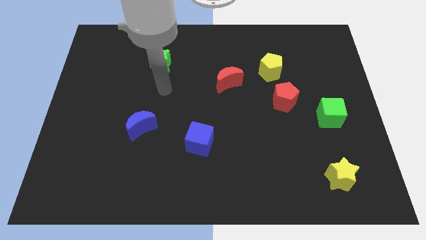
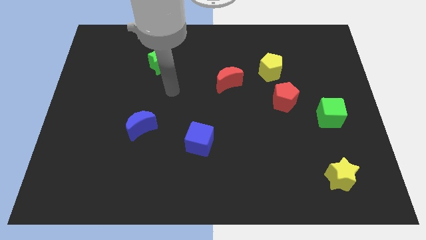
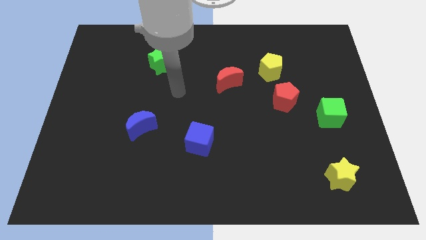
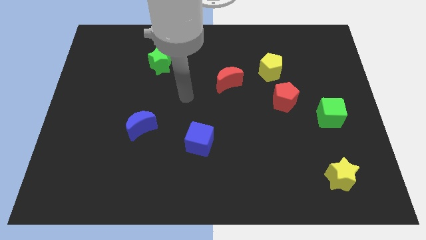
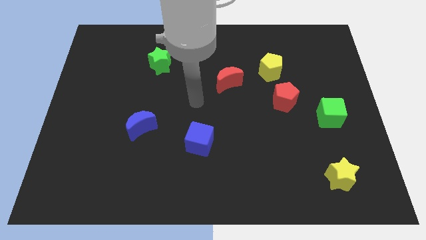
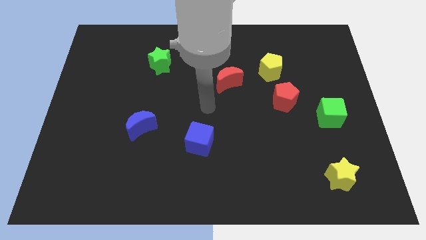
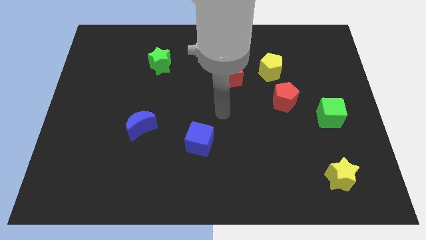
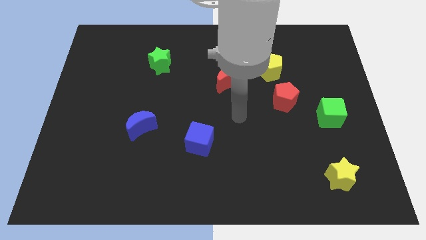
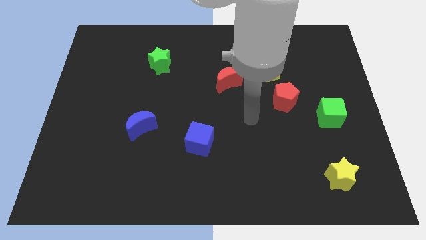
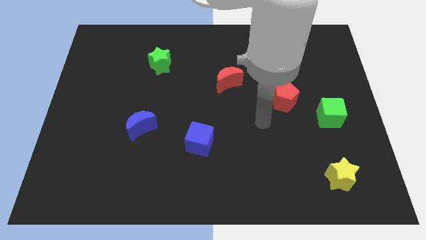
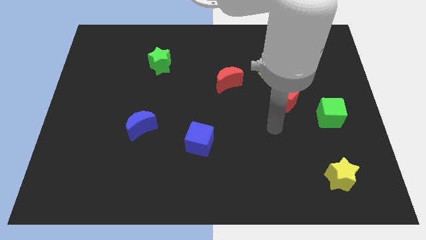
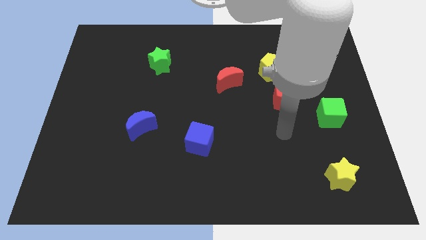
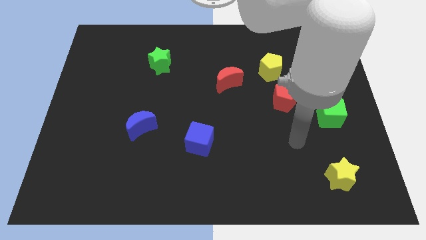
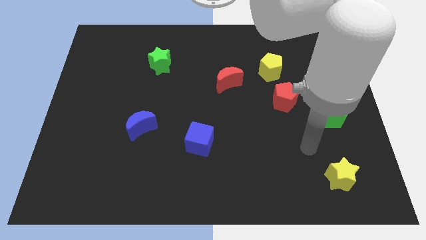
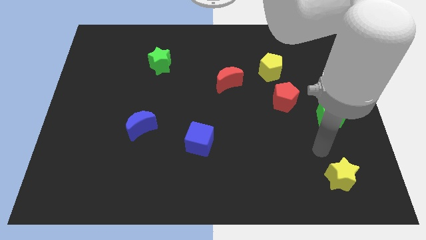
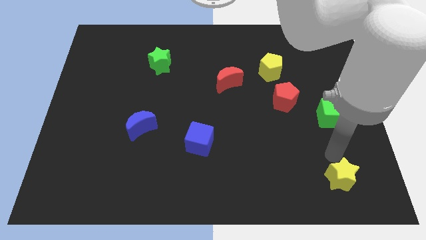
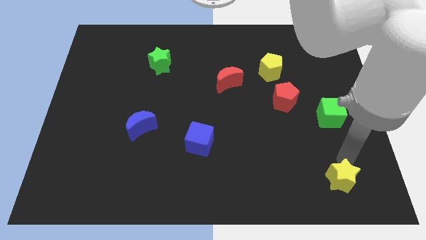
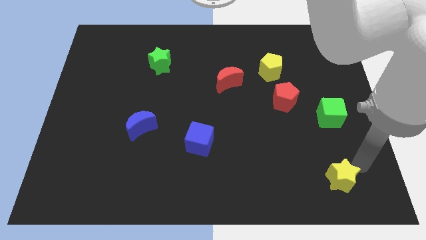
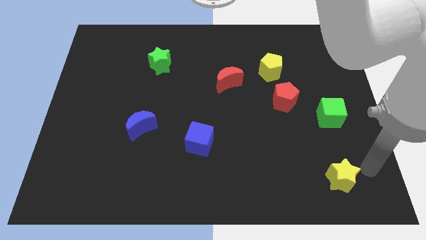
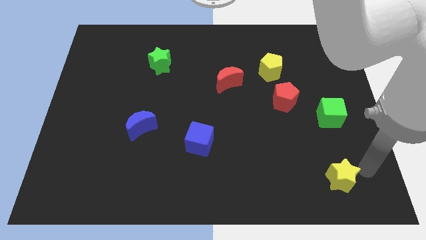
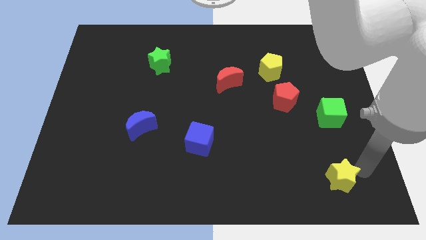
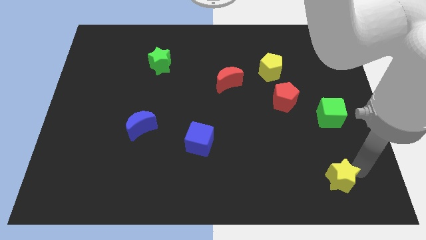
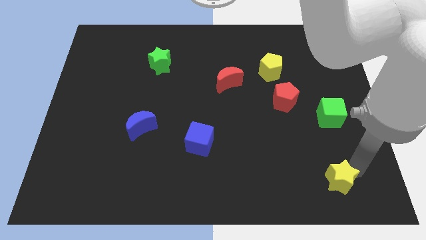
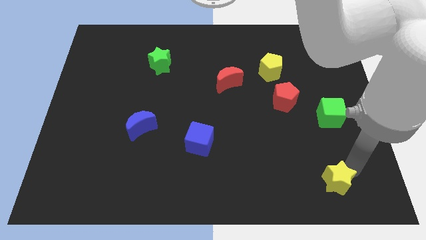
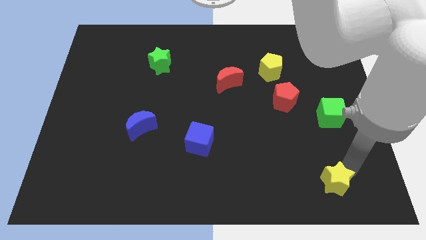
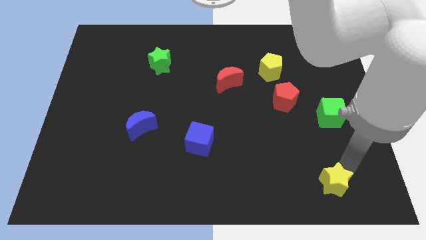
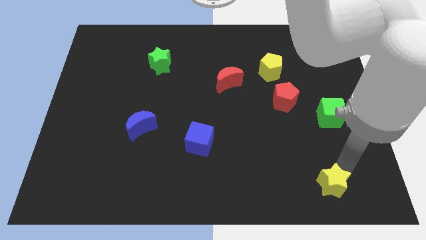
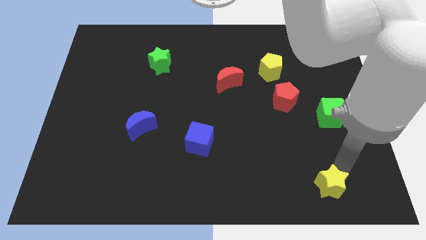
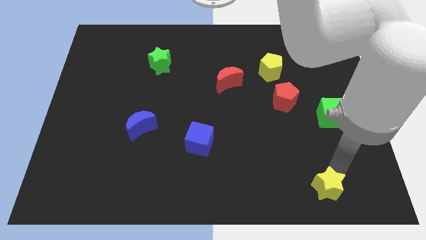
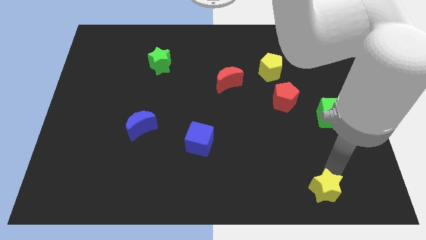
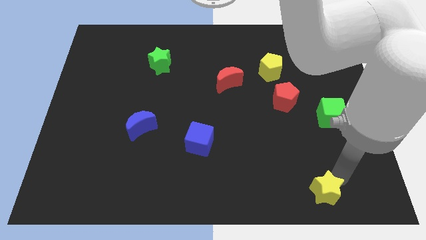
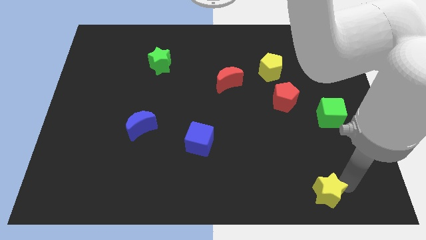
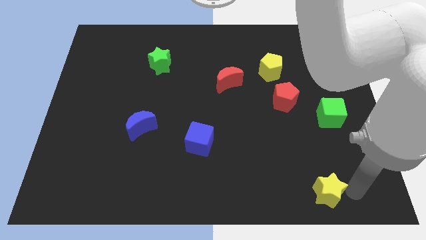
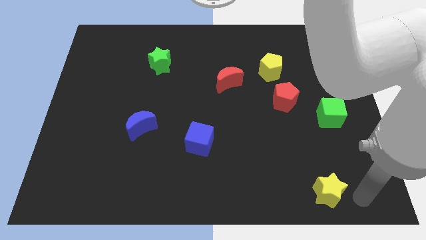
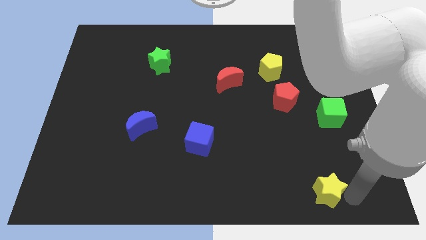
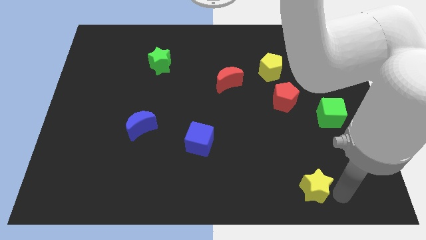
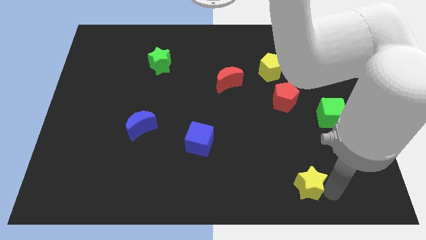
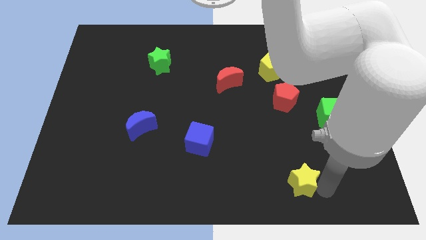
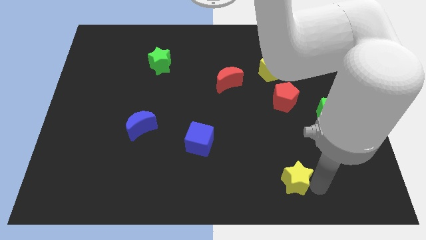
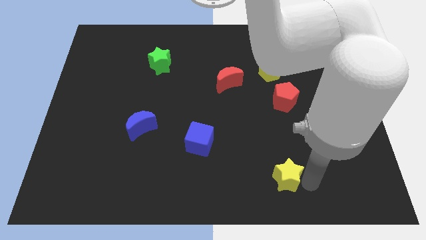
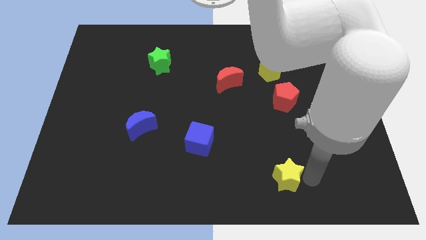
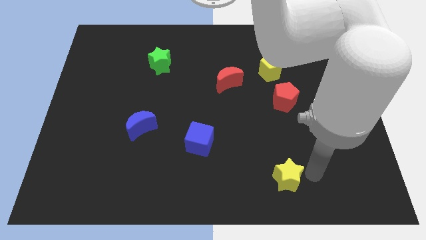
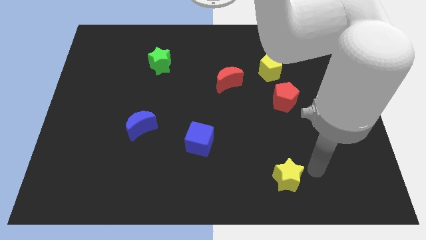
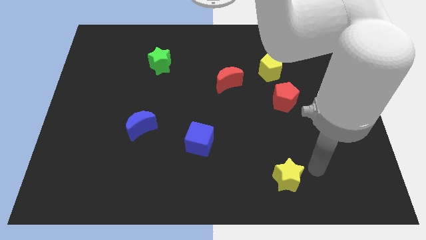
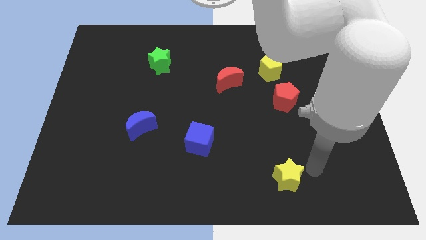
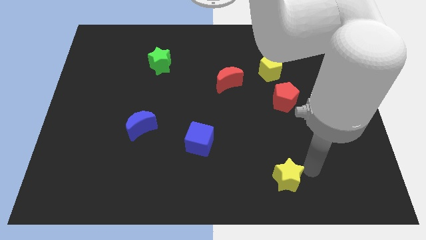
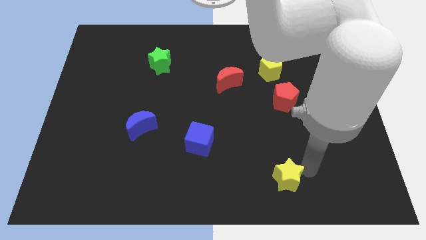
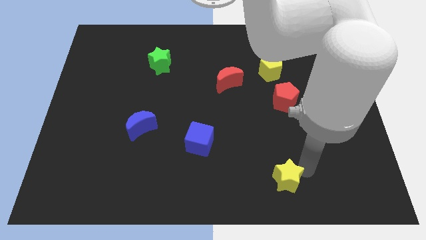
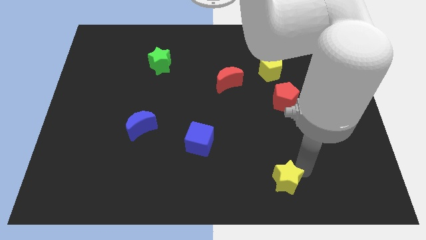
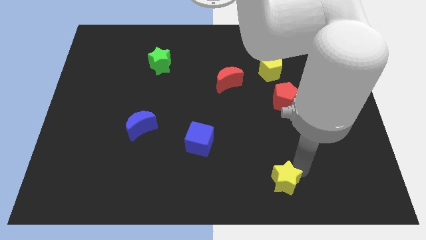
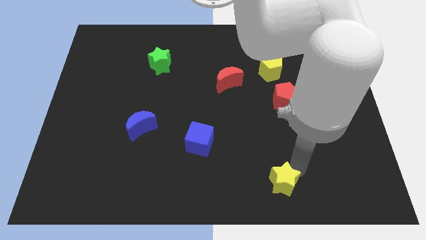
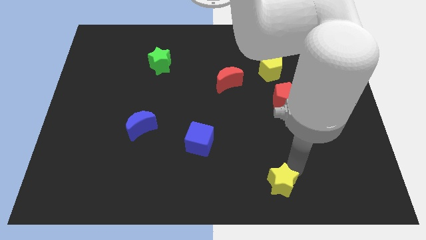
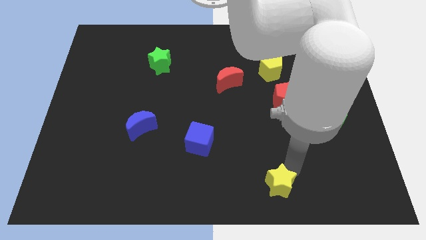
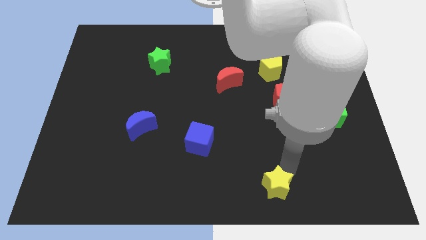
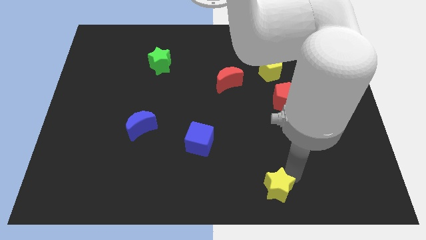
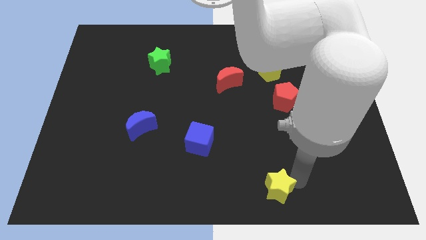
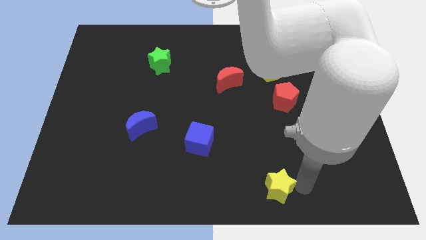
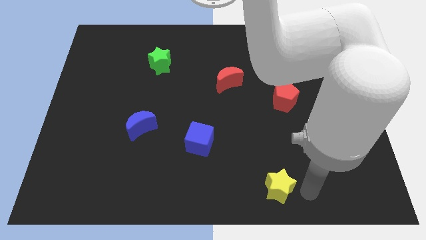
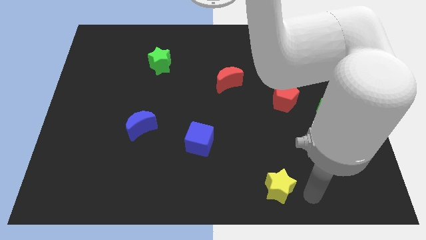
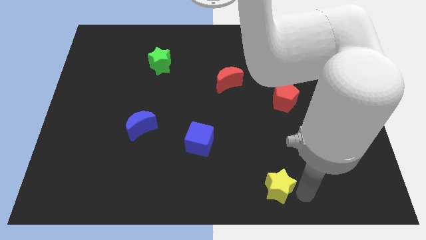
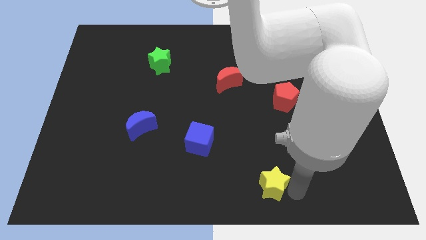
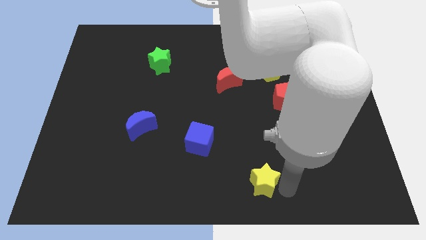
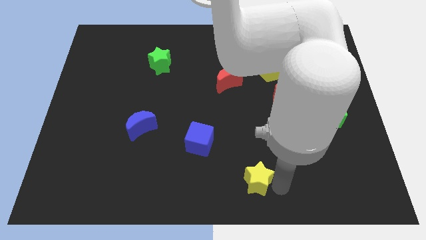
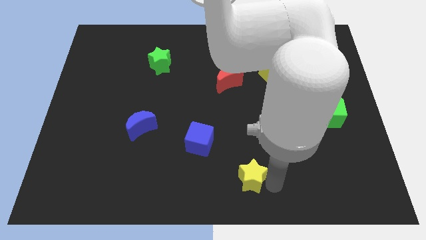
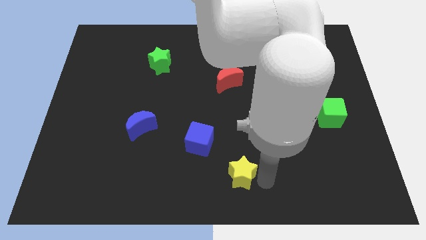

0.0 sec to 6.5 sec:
slide the yellow star left

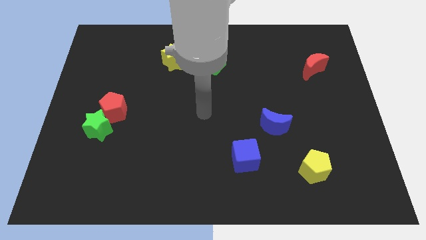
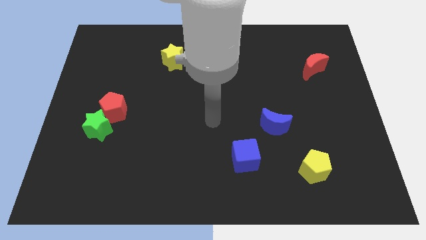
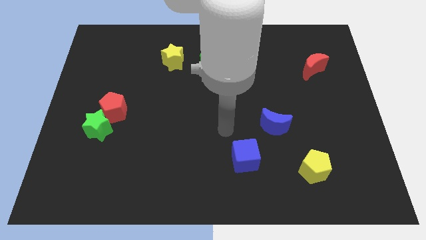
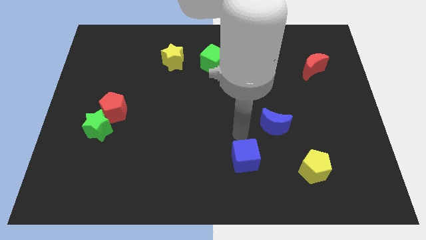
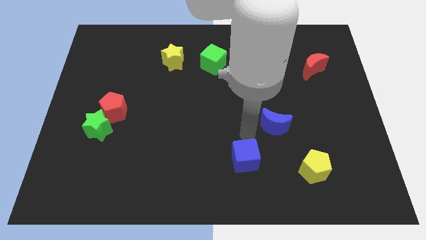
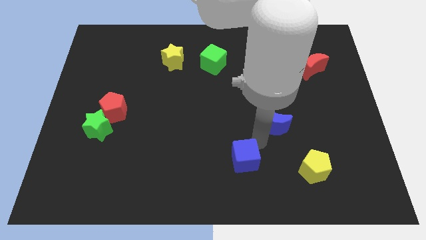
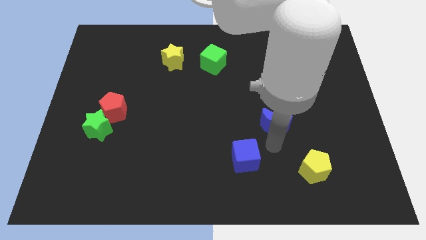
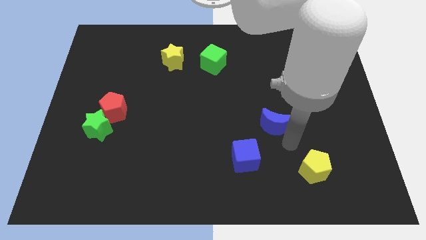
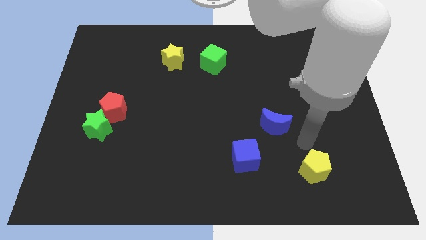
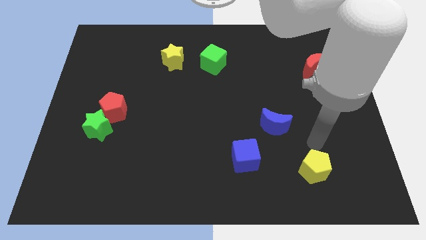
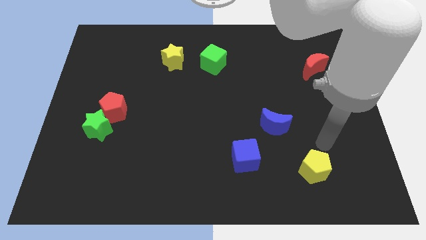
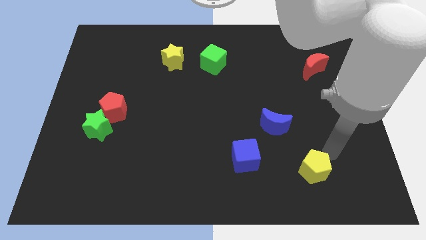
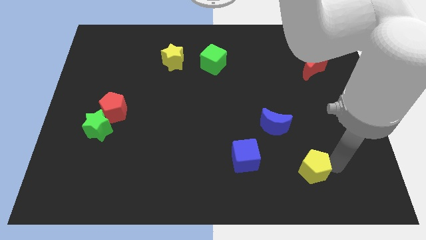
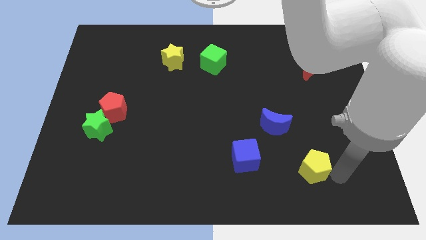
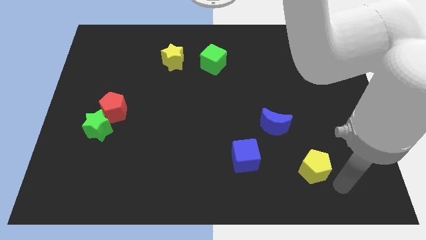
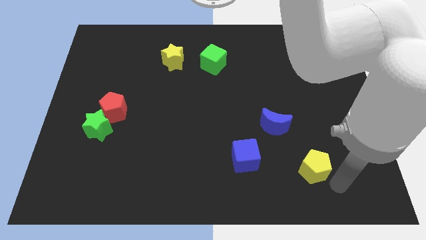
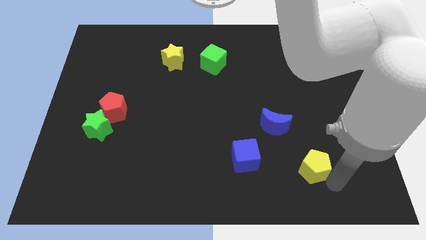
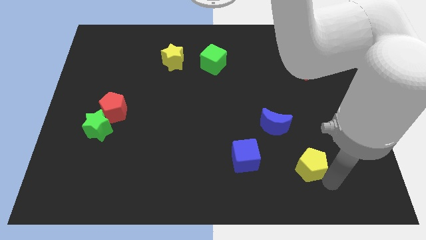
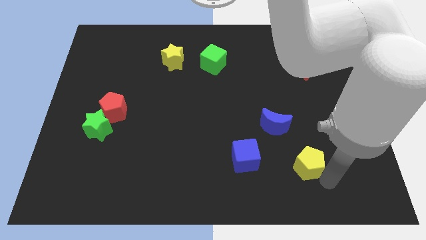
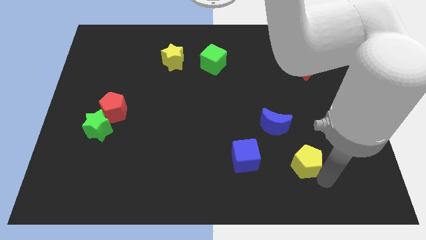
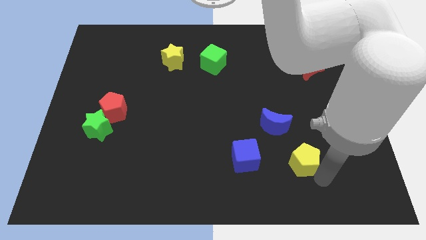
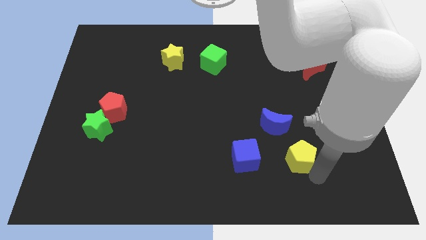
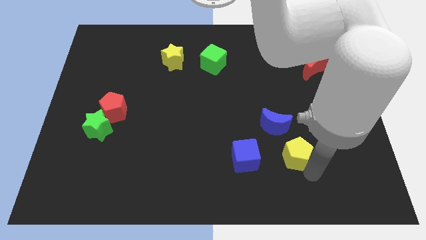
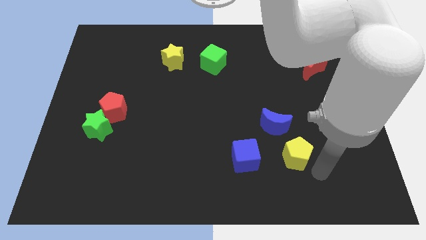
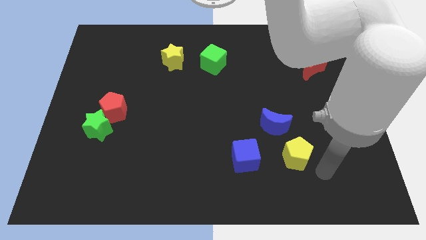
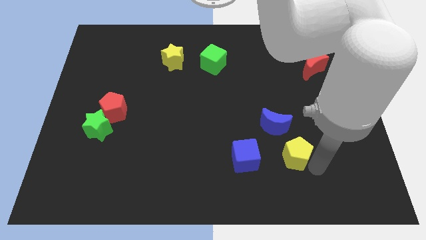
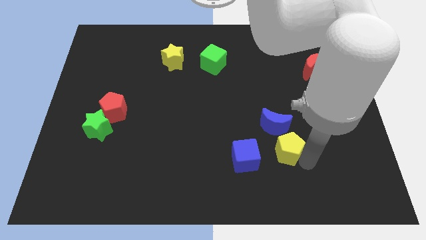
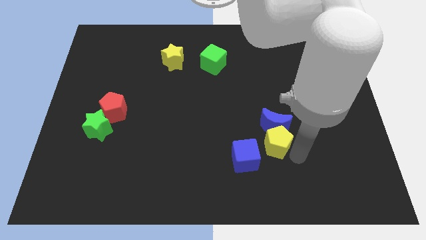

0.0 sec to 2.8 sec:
move the yellow pentagon slightly upwards and to the left diagonally
